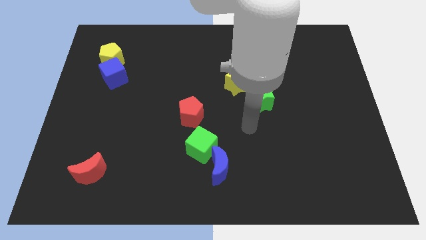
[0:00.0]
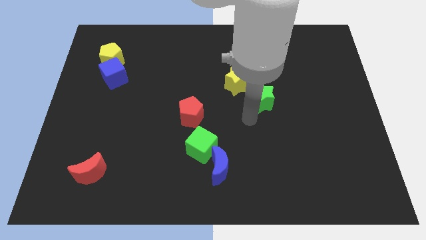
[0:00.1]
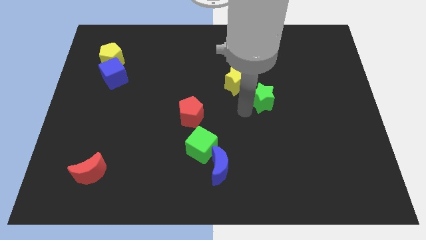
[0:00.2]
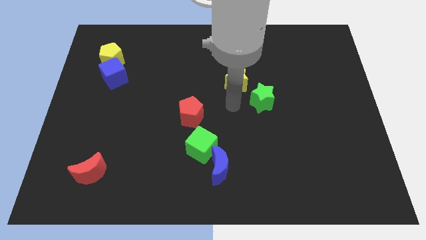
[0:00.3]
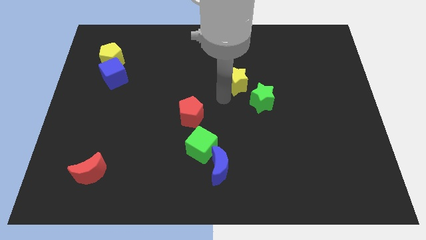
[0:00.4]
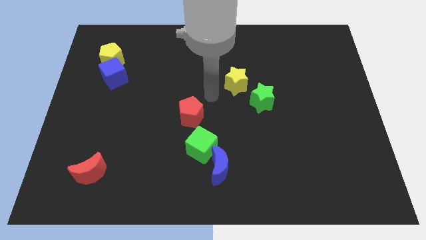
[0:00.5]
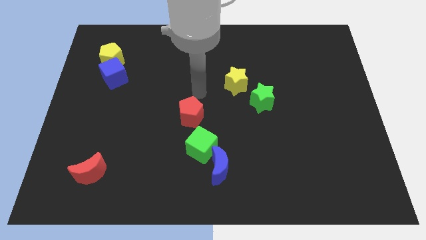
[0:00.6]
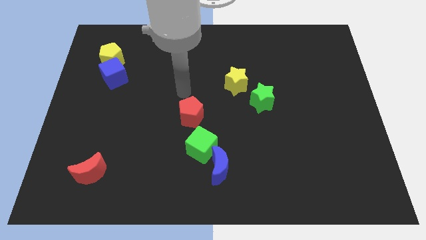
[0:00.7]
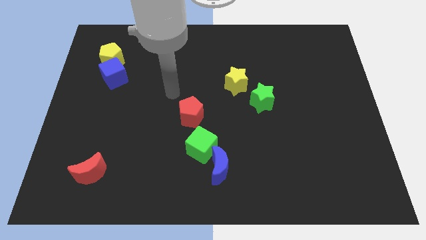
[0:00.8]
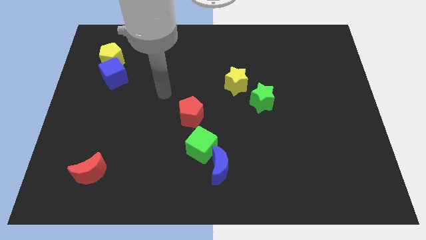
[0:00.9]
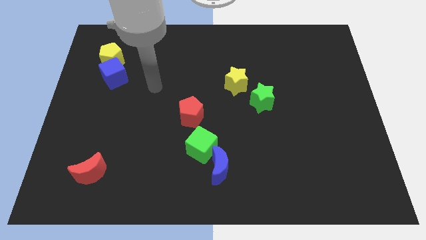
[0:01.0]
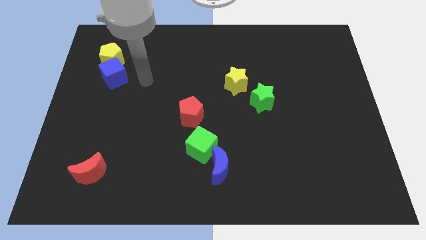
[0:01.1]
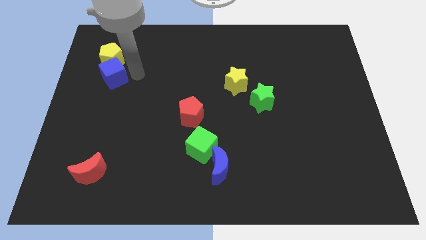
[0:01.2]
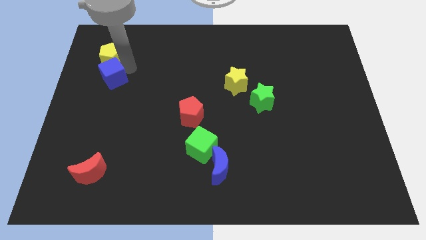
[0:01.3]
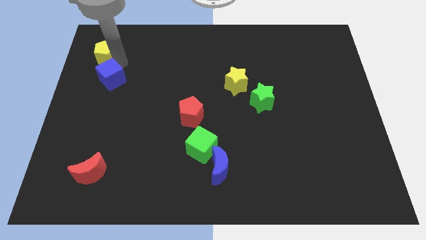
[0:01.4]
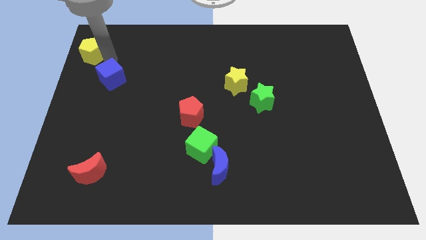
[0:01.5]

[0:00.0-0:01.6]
move the blue cube away from the yellow pentagon

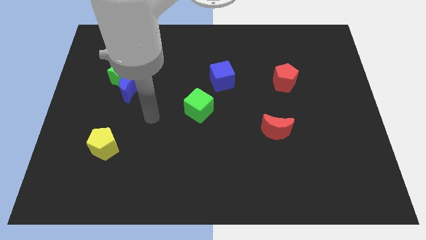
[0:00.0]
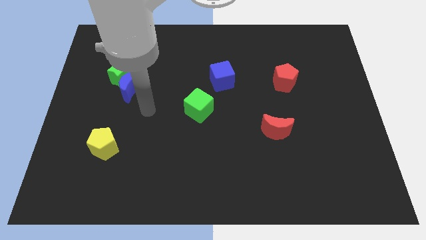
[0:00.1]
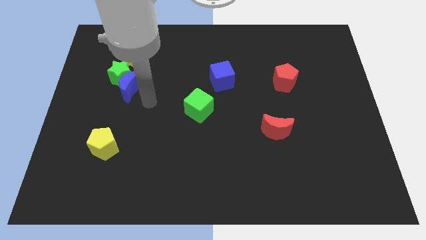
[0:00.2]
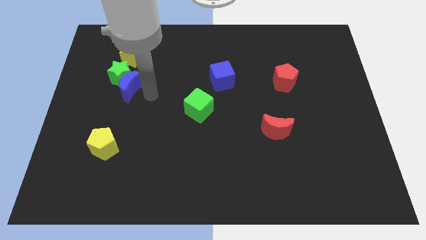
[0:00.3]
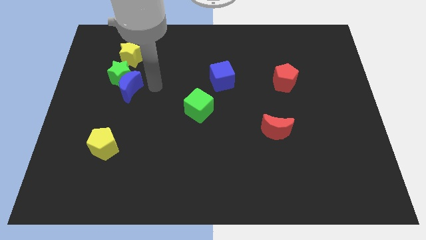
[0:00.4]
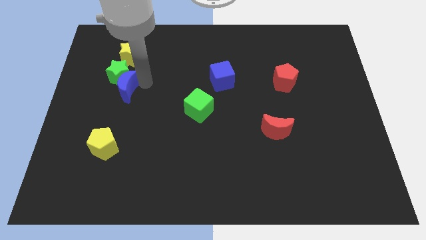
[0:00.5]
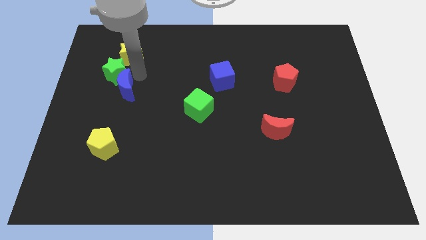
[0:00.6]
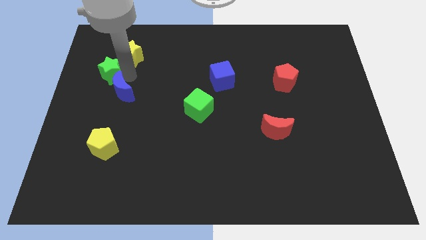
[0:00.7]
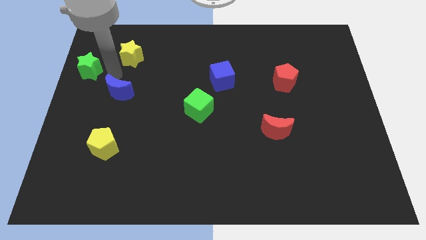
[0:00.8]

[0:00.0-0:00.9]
separate the blue moon from the green star

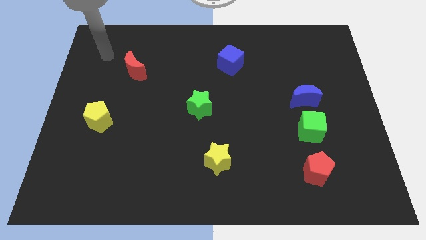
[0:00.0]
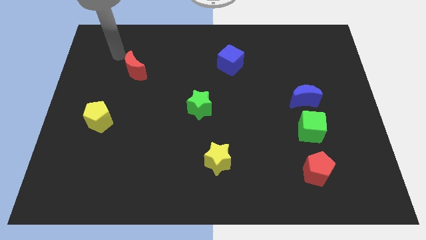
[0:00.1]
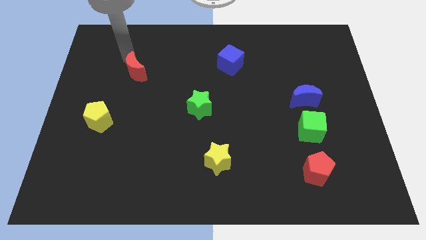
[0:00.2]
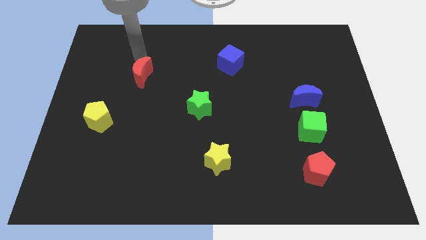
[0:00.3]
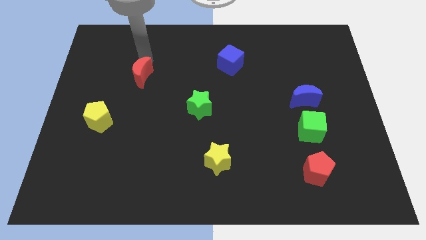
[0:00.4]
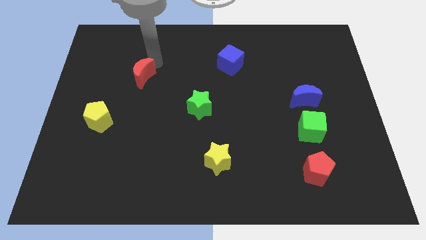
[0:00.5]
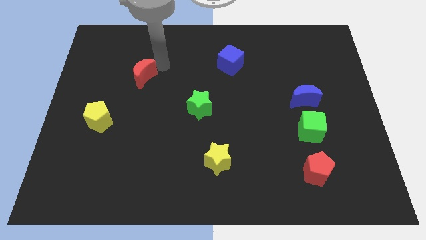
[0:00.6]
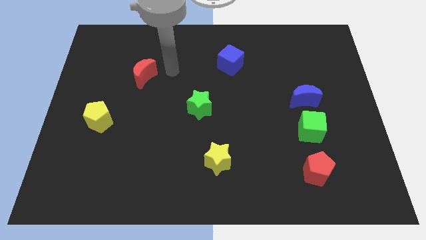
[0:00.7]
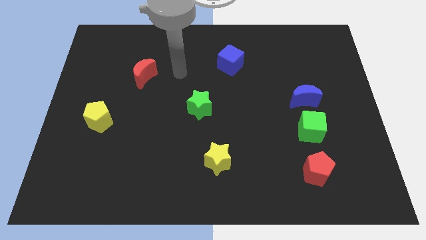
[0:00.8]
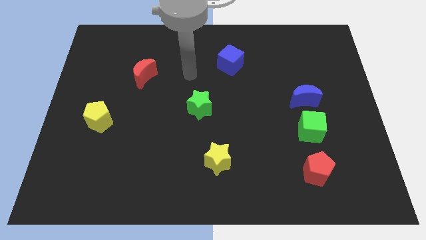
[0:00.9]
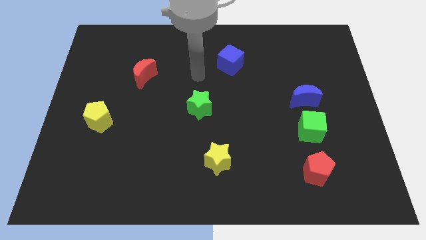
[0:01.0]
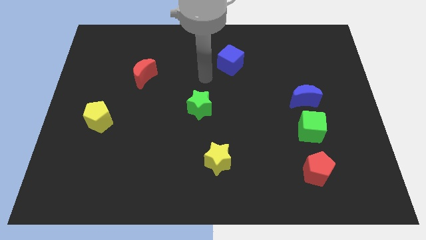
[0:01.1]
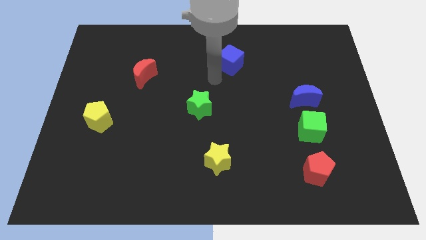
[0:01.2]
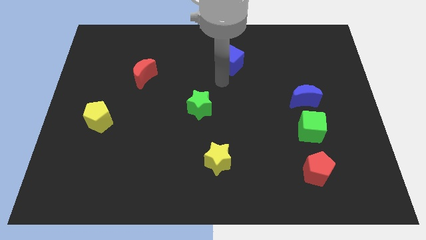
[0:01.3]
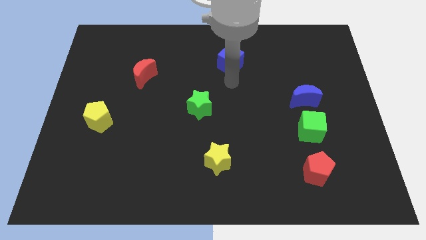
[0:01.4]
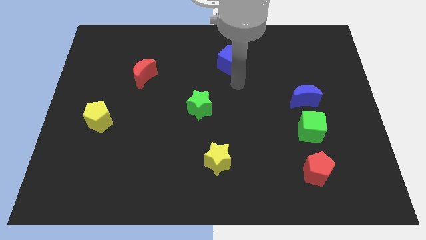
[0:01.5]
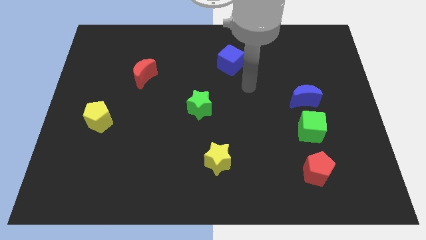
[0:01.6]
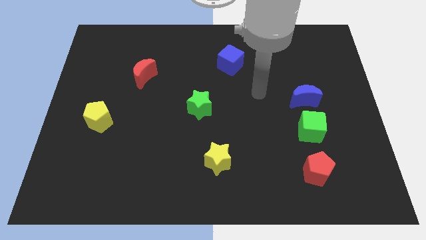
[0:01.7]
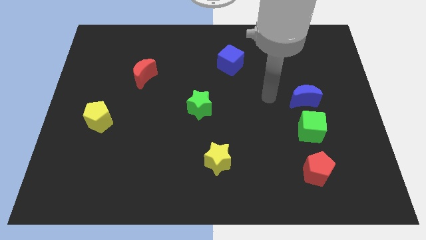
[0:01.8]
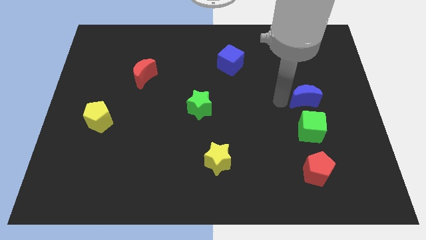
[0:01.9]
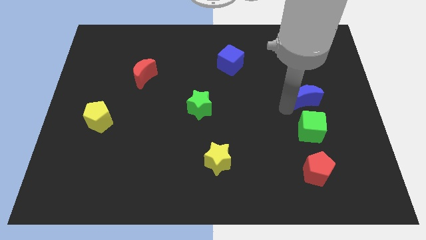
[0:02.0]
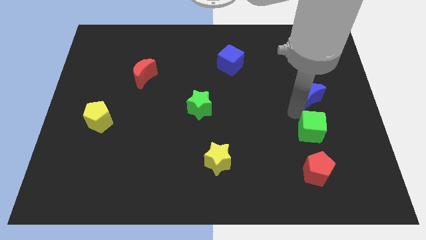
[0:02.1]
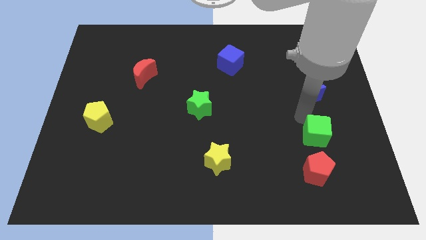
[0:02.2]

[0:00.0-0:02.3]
pull the blue moon apart from the green cube

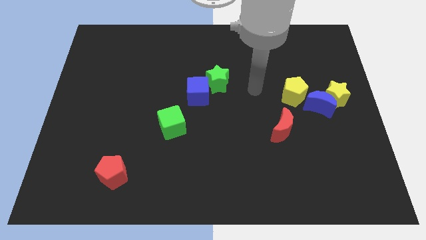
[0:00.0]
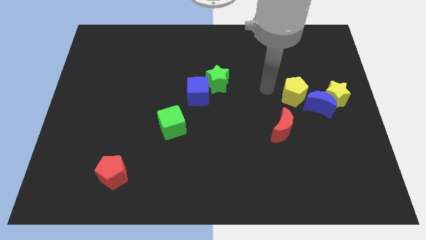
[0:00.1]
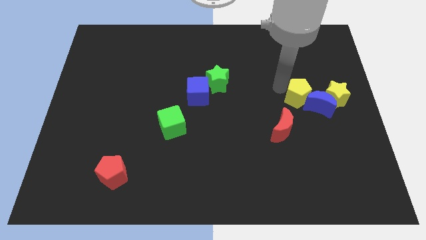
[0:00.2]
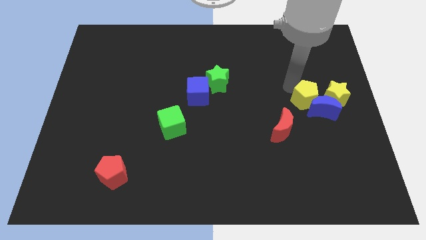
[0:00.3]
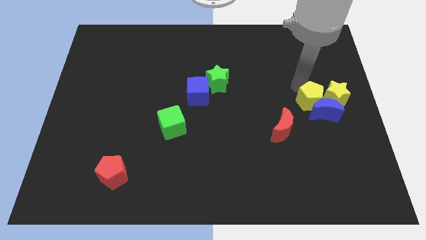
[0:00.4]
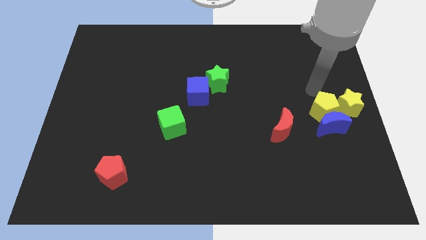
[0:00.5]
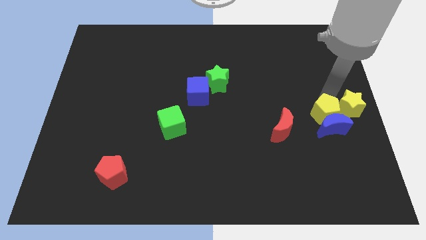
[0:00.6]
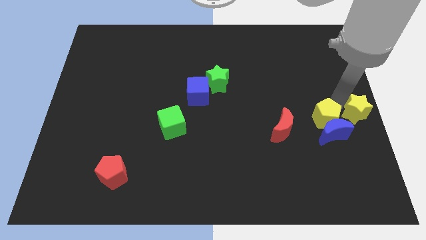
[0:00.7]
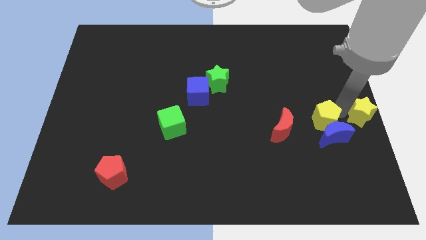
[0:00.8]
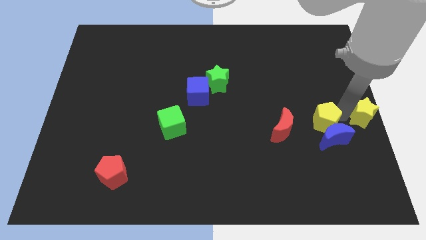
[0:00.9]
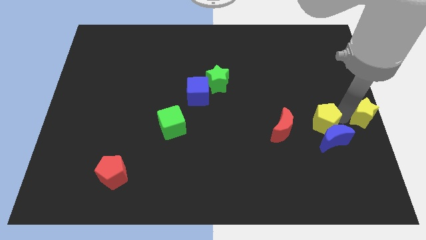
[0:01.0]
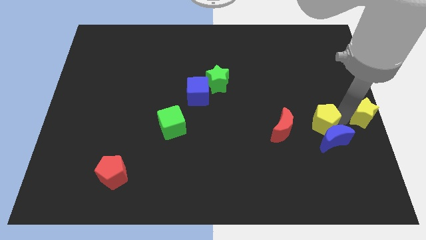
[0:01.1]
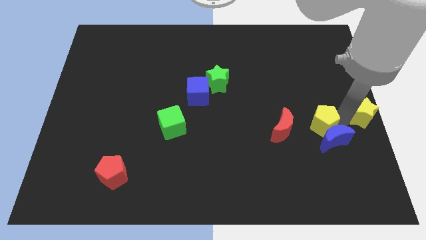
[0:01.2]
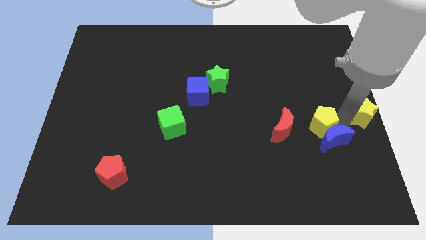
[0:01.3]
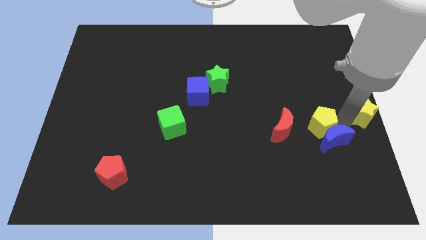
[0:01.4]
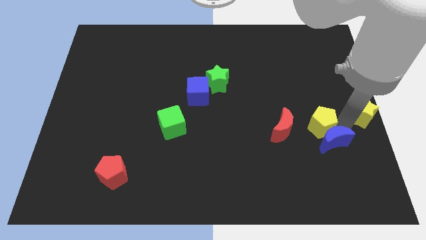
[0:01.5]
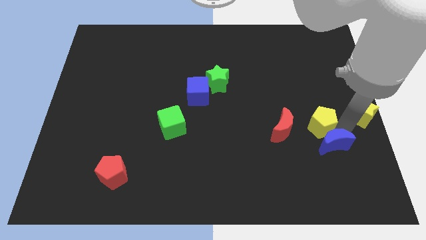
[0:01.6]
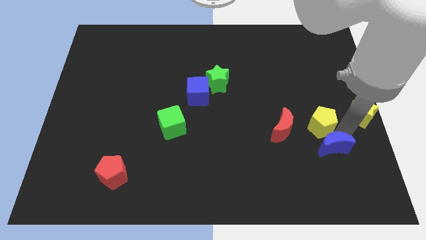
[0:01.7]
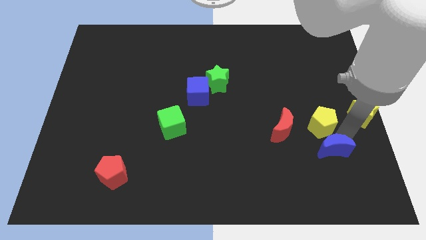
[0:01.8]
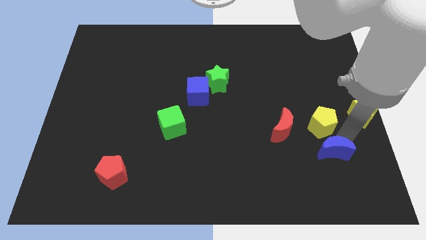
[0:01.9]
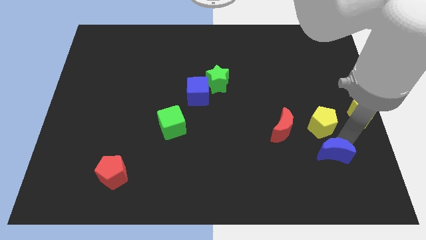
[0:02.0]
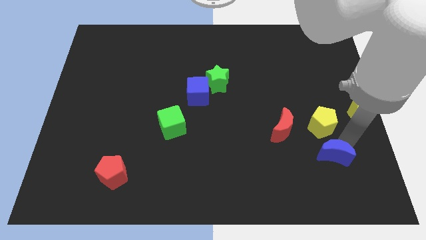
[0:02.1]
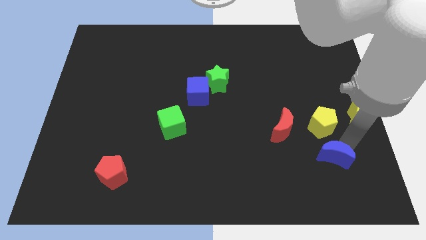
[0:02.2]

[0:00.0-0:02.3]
move the blue moon away from the yellow star and yellow pentagon

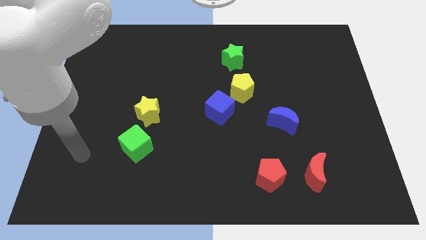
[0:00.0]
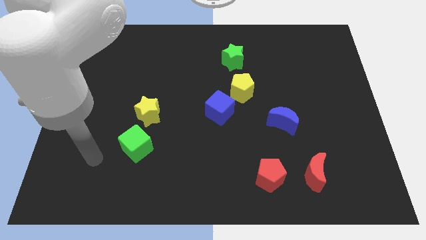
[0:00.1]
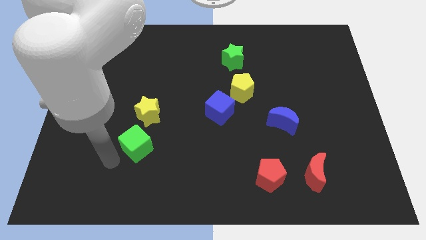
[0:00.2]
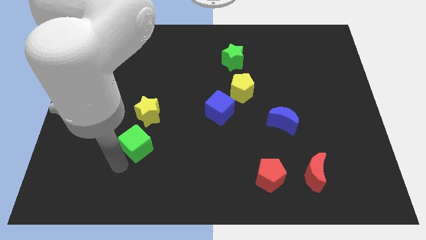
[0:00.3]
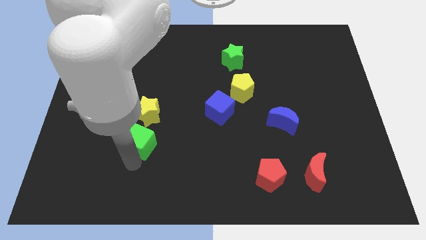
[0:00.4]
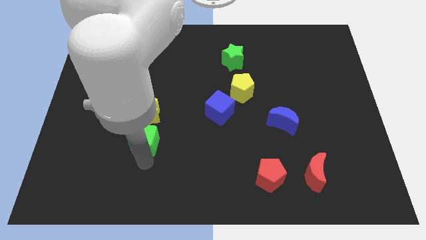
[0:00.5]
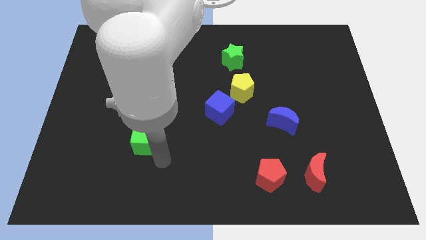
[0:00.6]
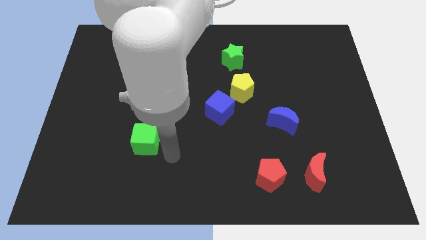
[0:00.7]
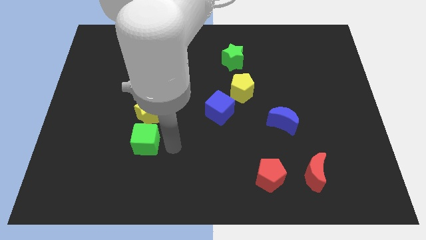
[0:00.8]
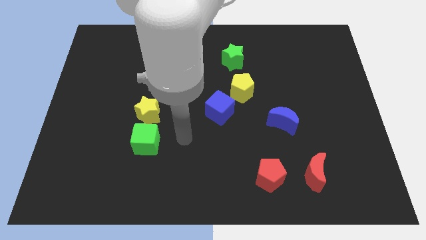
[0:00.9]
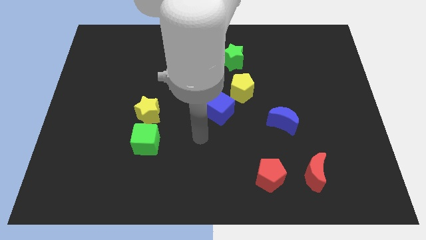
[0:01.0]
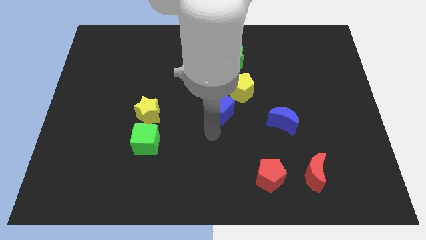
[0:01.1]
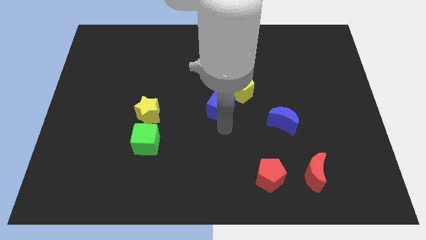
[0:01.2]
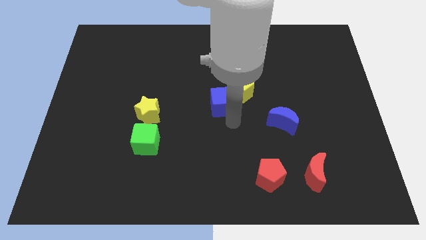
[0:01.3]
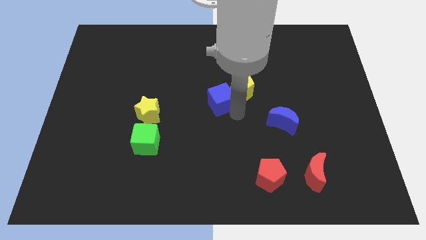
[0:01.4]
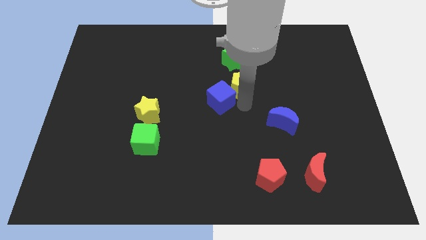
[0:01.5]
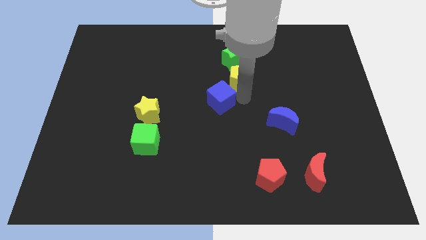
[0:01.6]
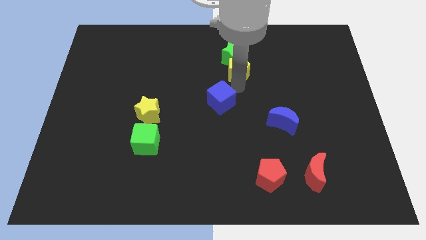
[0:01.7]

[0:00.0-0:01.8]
pull the blue cube apart from the yellow pentagon

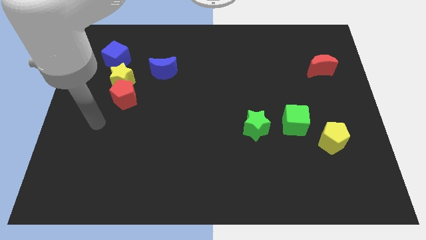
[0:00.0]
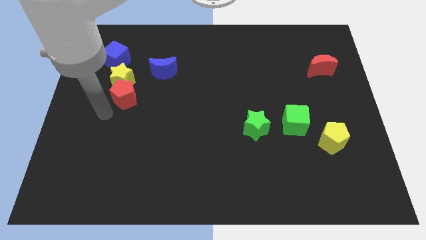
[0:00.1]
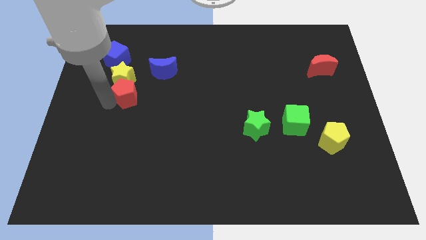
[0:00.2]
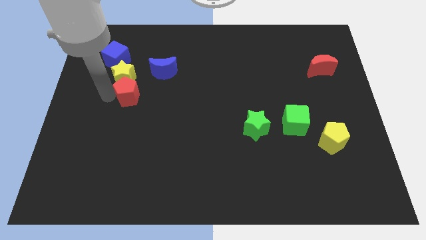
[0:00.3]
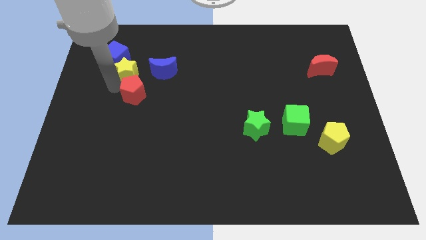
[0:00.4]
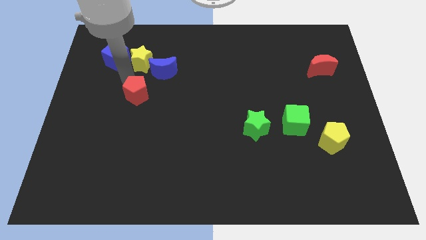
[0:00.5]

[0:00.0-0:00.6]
separate the red pentagon from the yellow star

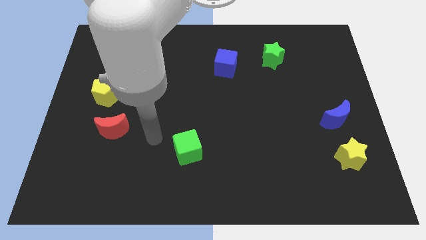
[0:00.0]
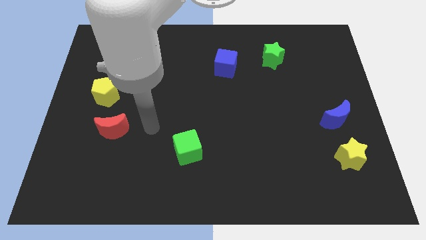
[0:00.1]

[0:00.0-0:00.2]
move the red pentagon away from the yellow pentagon
